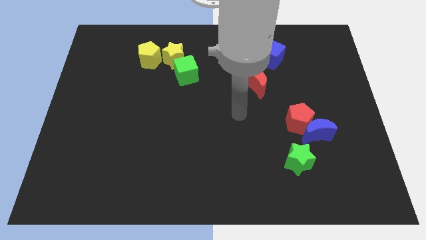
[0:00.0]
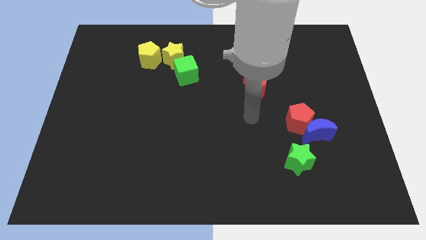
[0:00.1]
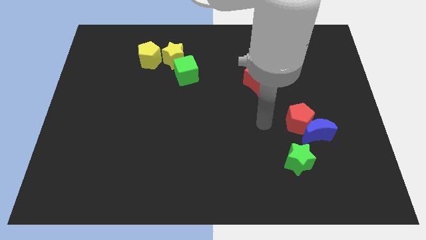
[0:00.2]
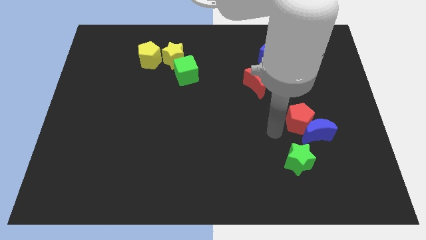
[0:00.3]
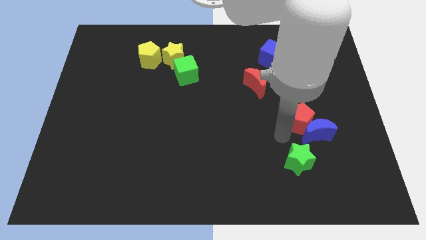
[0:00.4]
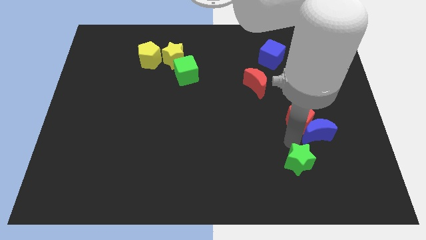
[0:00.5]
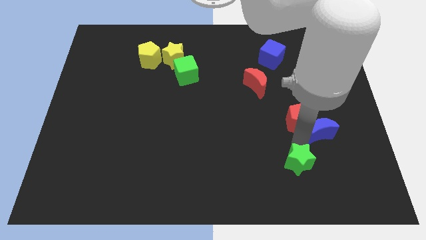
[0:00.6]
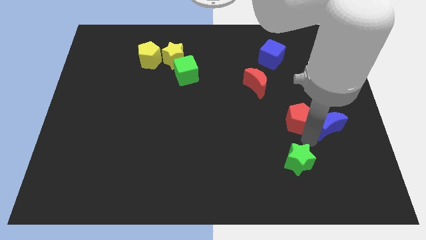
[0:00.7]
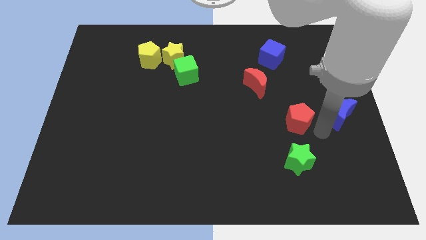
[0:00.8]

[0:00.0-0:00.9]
separate the red pentagon from the blue moon

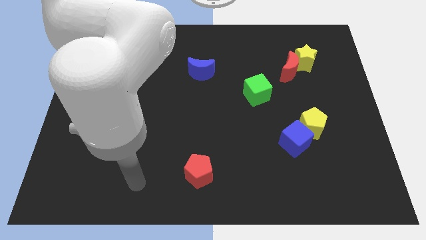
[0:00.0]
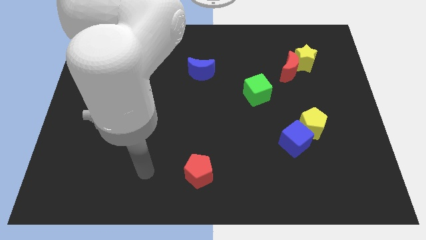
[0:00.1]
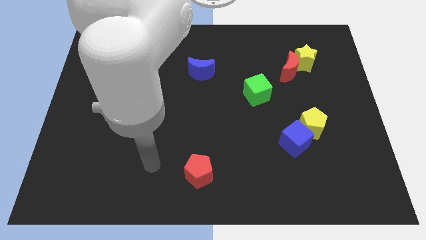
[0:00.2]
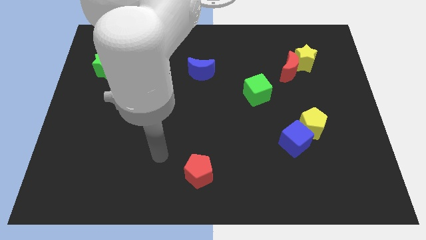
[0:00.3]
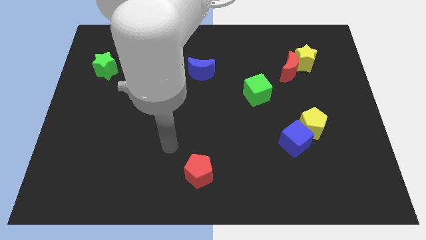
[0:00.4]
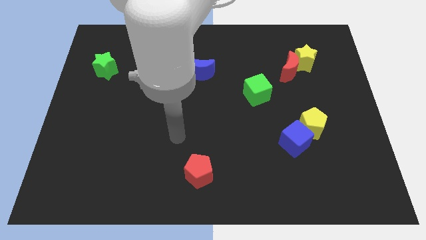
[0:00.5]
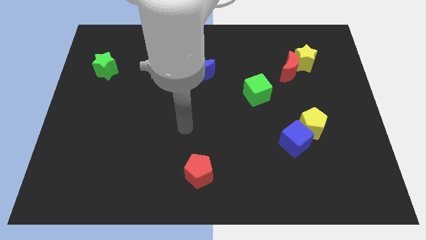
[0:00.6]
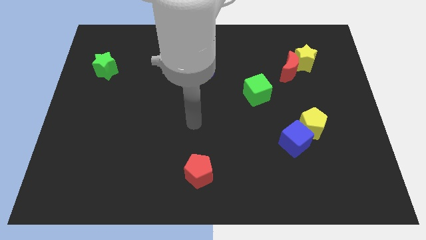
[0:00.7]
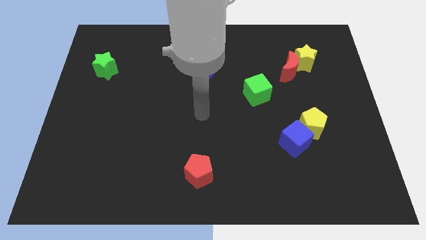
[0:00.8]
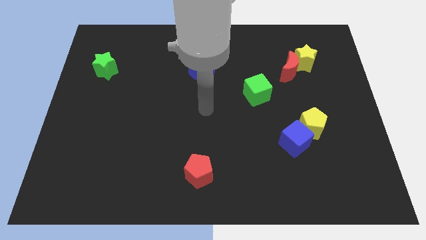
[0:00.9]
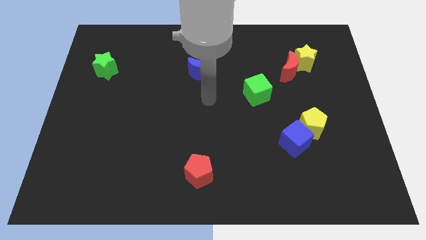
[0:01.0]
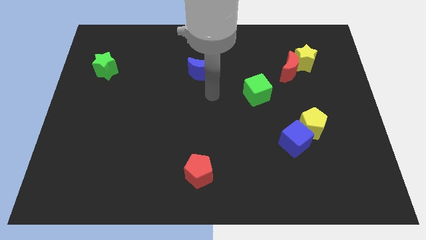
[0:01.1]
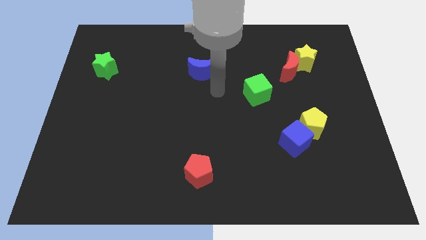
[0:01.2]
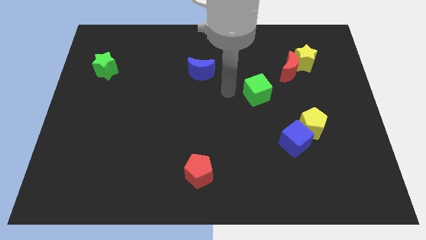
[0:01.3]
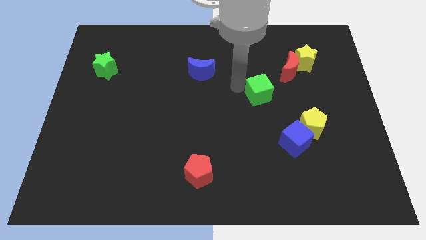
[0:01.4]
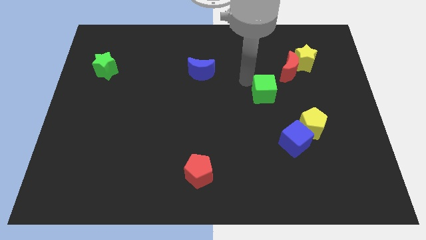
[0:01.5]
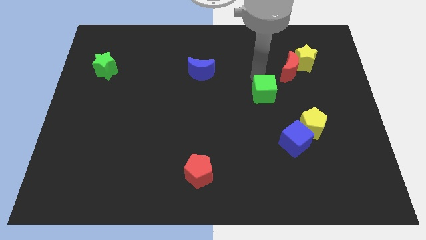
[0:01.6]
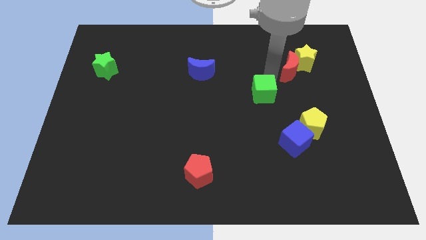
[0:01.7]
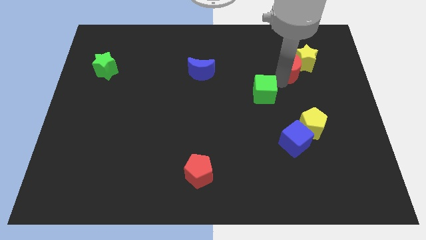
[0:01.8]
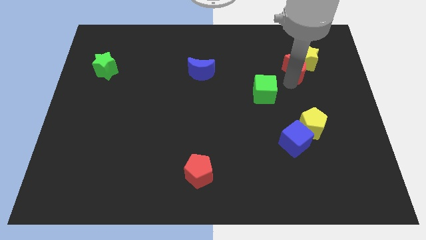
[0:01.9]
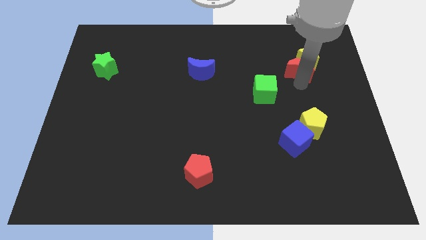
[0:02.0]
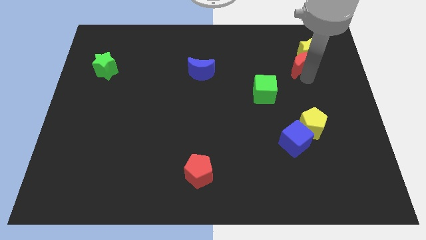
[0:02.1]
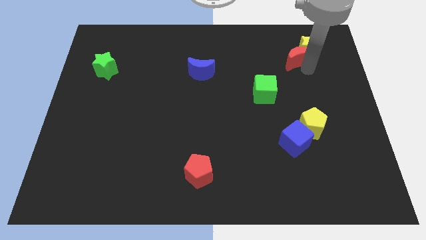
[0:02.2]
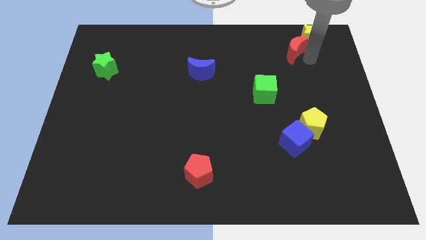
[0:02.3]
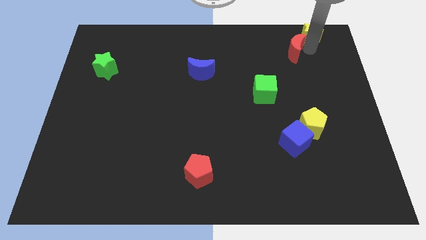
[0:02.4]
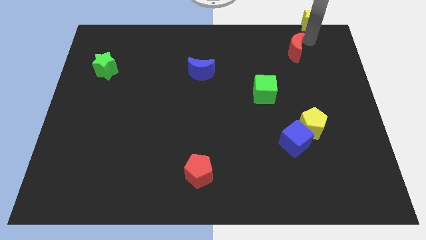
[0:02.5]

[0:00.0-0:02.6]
separate the red moon from the yellow star

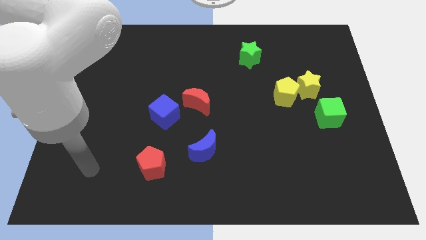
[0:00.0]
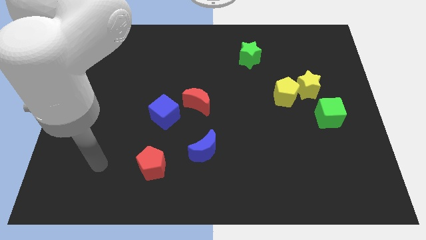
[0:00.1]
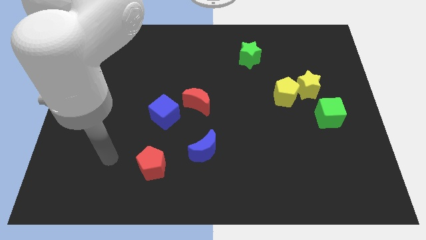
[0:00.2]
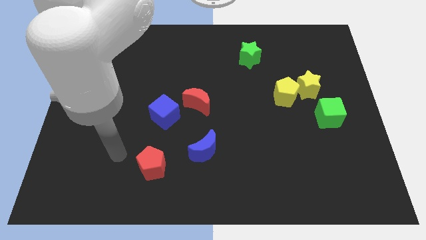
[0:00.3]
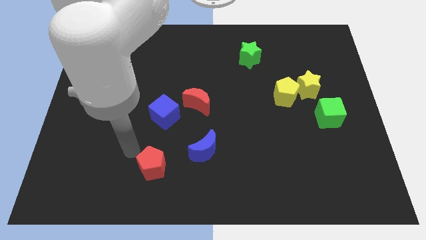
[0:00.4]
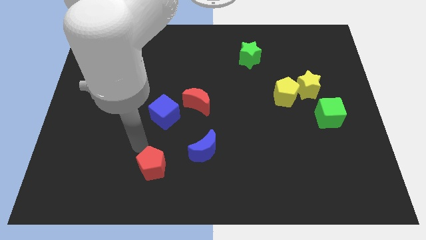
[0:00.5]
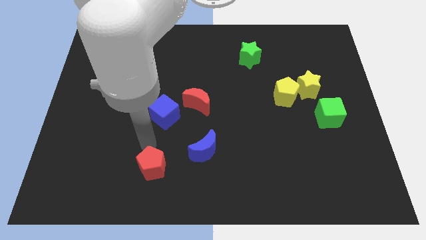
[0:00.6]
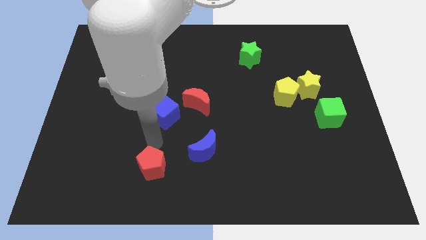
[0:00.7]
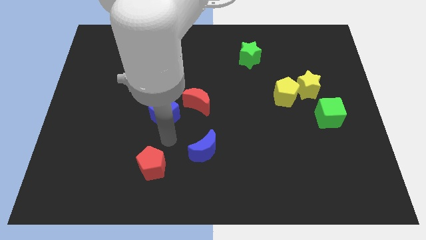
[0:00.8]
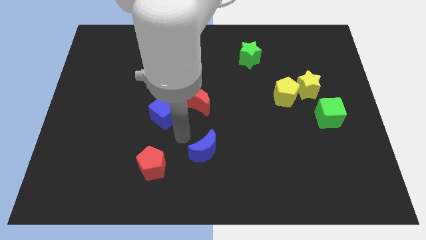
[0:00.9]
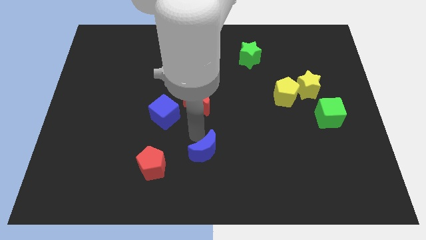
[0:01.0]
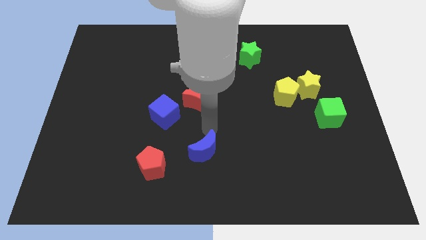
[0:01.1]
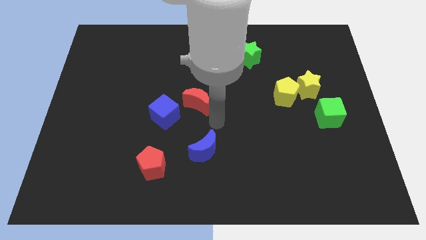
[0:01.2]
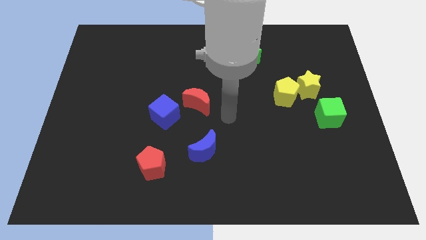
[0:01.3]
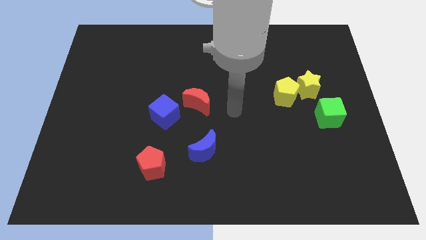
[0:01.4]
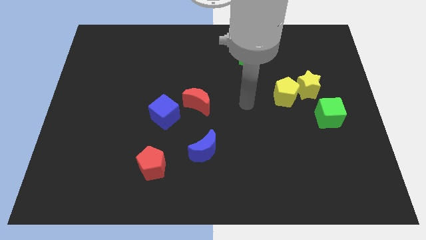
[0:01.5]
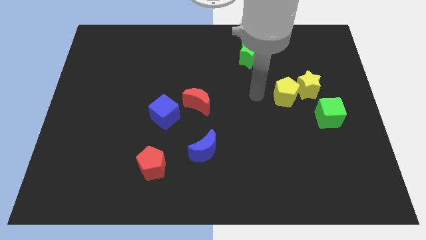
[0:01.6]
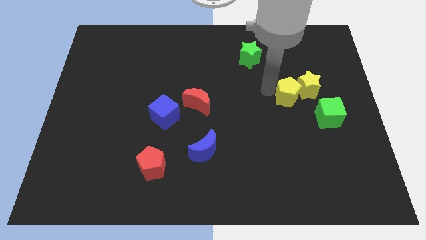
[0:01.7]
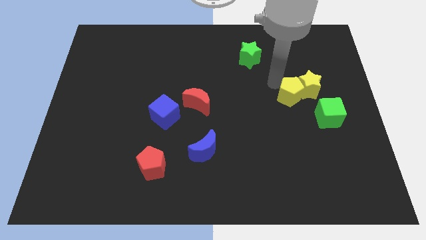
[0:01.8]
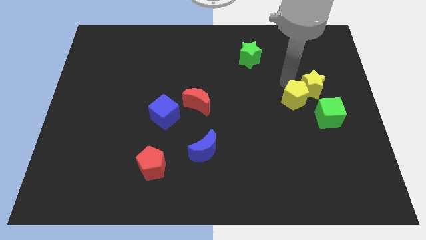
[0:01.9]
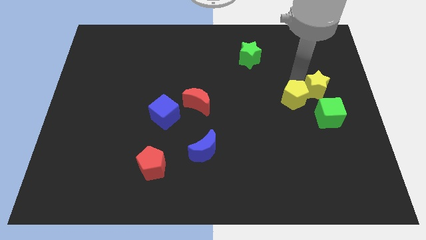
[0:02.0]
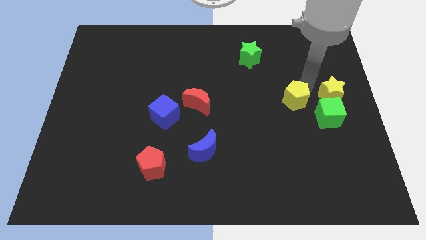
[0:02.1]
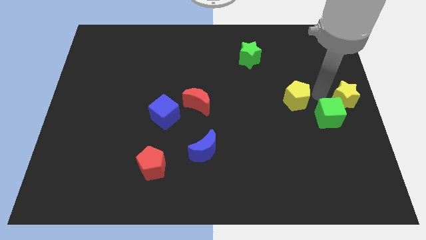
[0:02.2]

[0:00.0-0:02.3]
separate the yellow pentagon from the yellow star

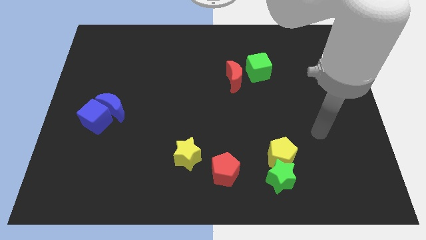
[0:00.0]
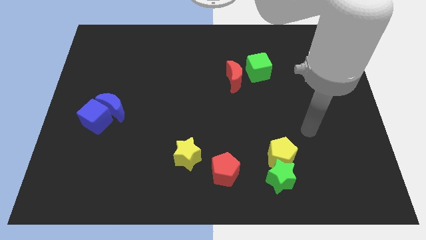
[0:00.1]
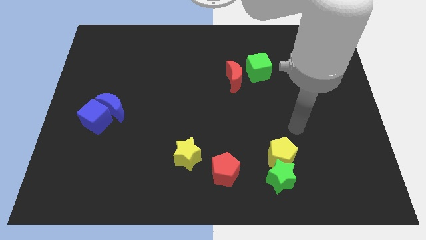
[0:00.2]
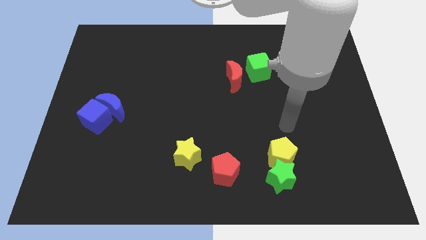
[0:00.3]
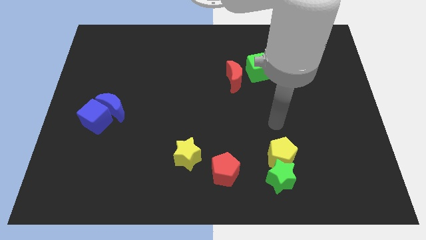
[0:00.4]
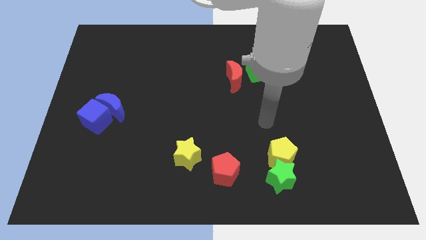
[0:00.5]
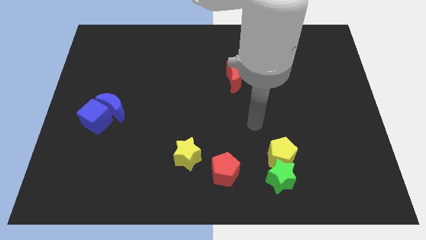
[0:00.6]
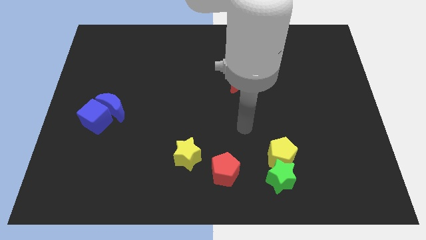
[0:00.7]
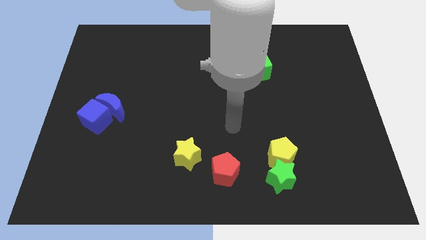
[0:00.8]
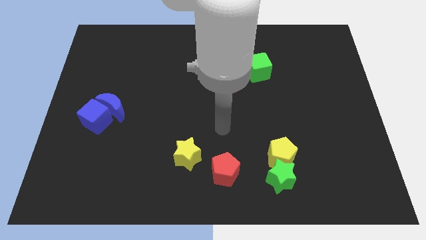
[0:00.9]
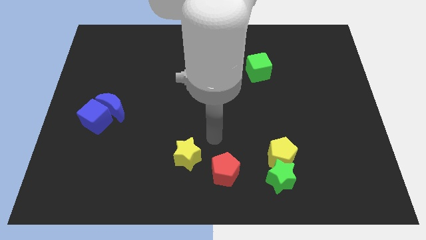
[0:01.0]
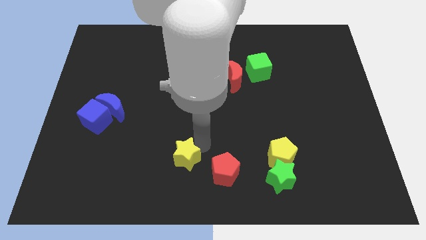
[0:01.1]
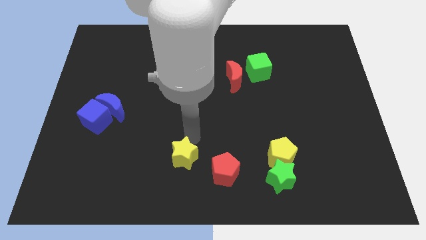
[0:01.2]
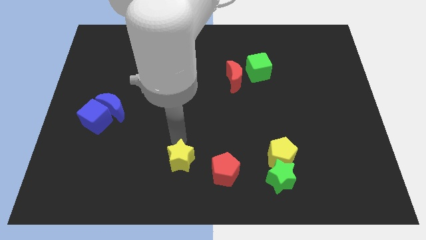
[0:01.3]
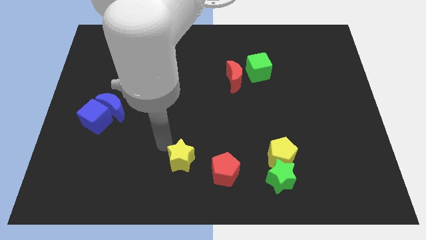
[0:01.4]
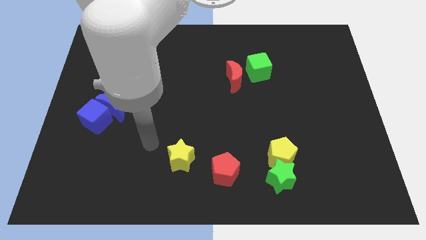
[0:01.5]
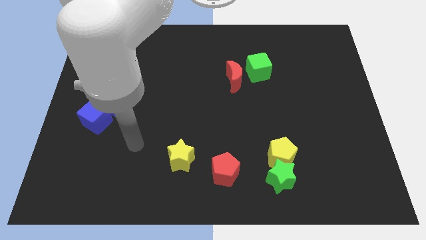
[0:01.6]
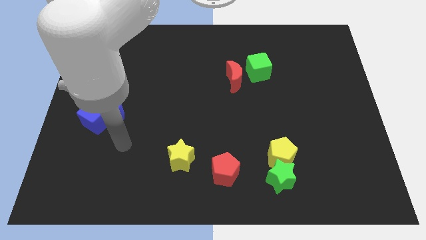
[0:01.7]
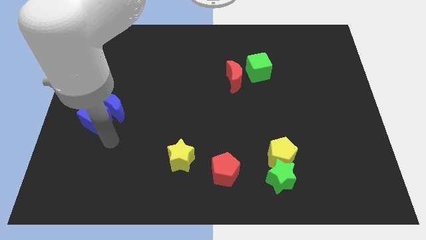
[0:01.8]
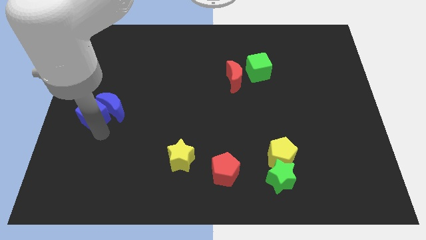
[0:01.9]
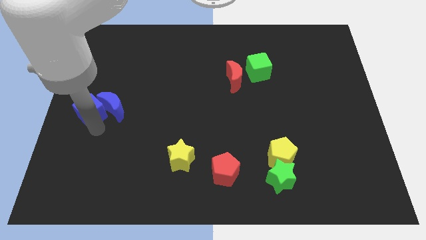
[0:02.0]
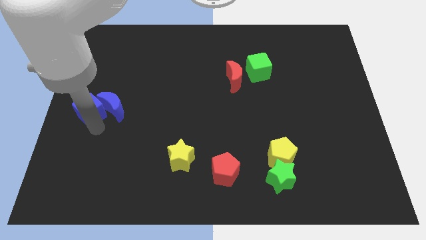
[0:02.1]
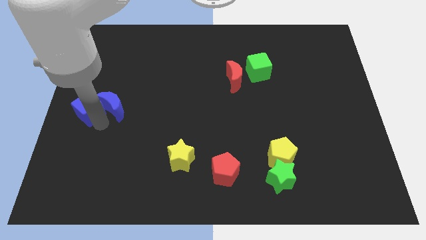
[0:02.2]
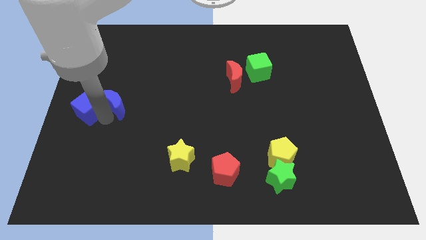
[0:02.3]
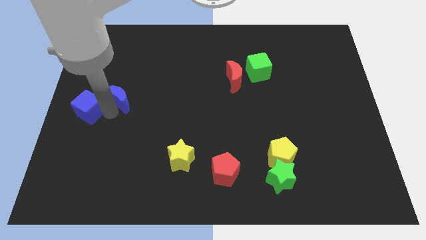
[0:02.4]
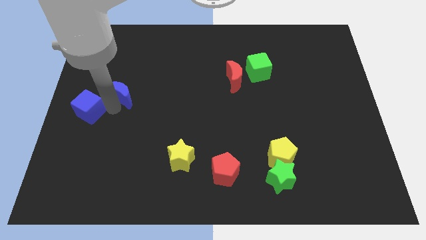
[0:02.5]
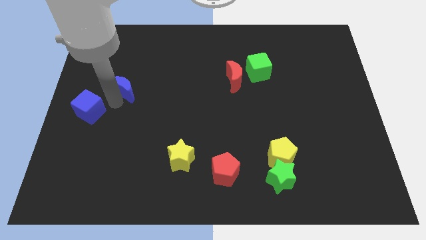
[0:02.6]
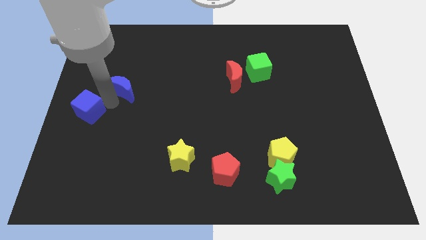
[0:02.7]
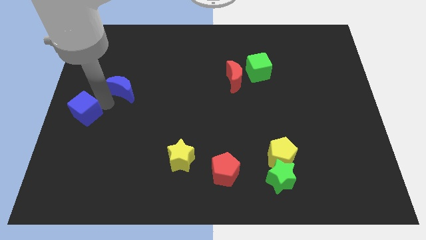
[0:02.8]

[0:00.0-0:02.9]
move the blue moon away from the blue cube

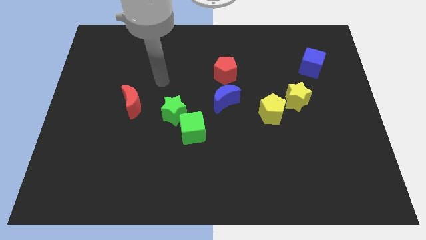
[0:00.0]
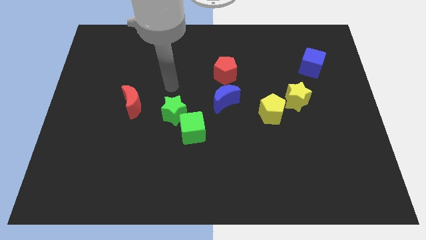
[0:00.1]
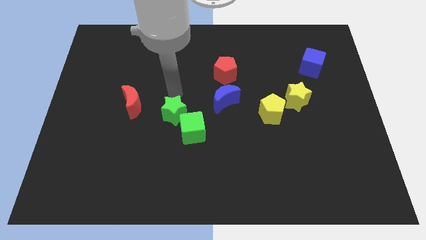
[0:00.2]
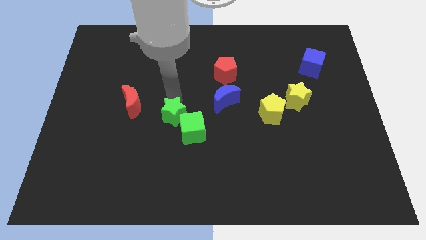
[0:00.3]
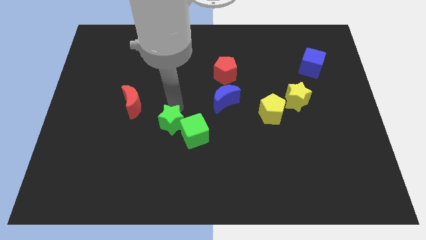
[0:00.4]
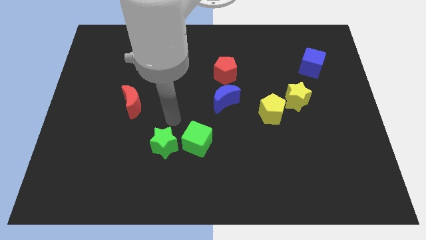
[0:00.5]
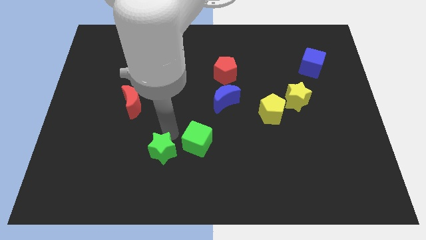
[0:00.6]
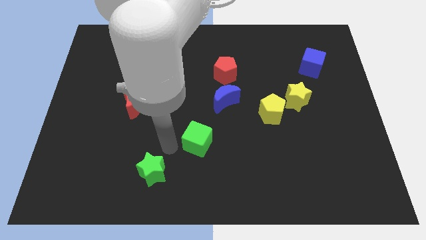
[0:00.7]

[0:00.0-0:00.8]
pull the green cube apart from the green star
